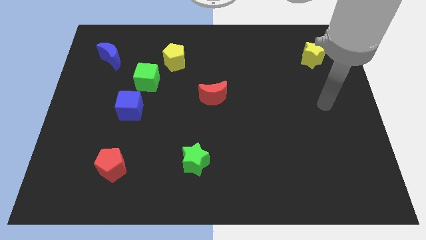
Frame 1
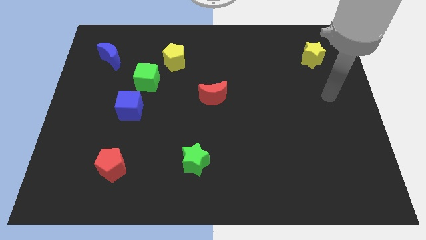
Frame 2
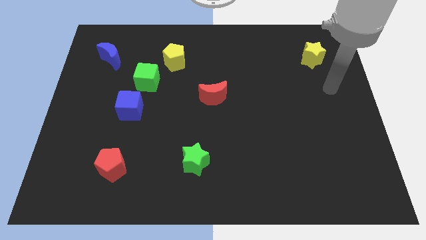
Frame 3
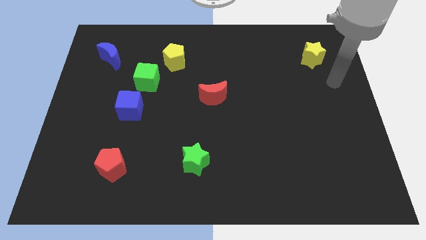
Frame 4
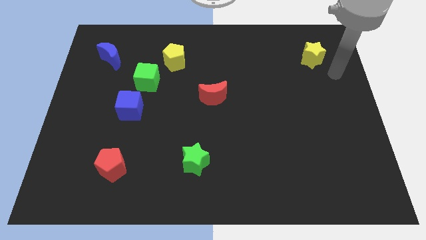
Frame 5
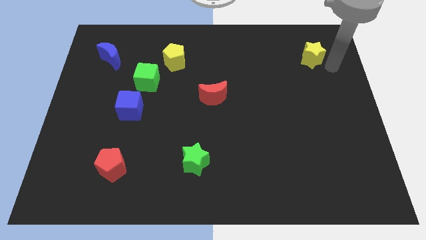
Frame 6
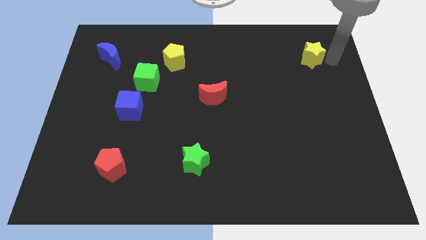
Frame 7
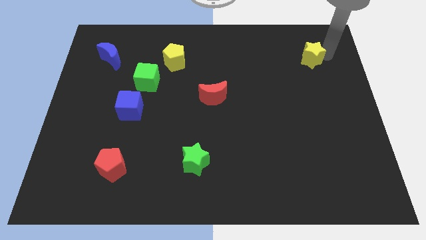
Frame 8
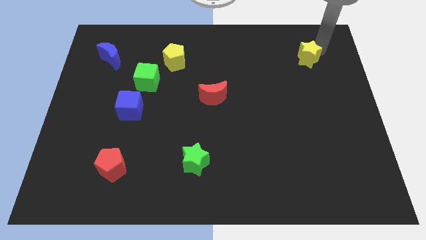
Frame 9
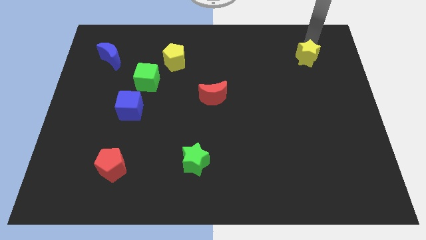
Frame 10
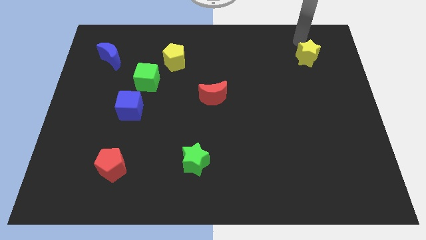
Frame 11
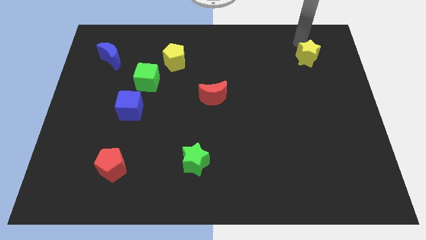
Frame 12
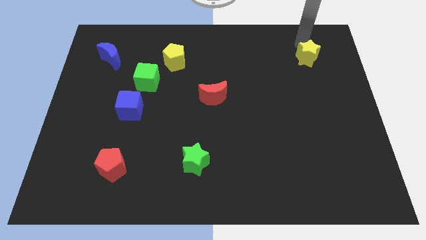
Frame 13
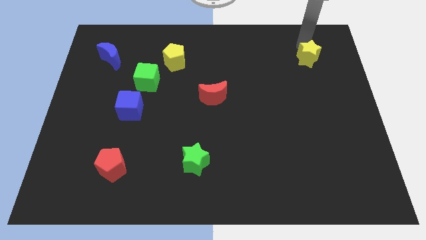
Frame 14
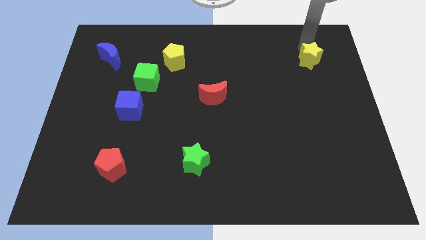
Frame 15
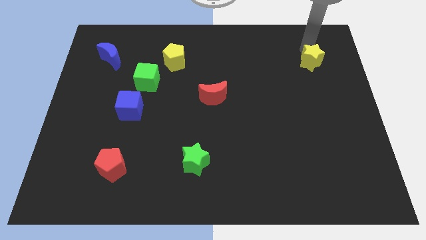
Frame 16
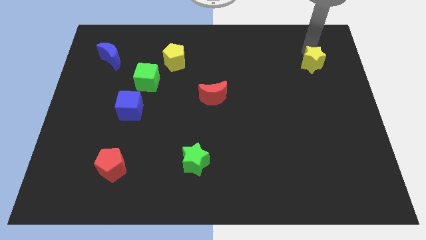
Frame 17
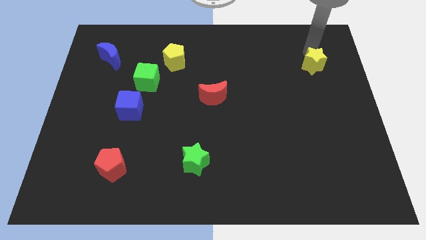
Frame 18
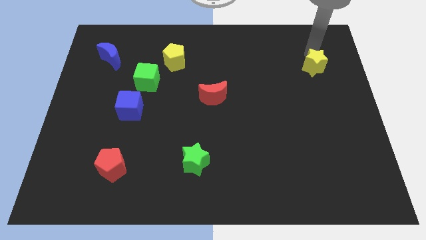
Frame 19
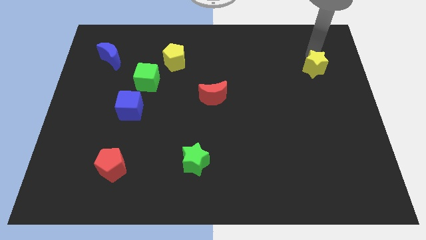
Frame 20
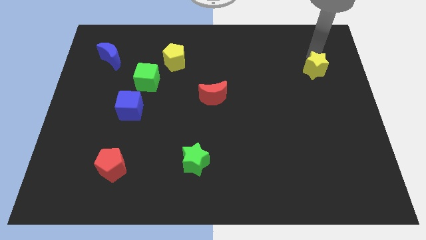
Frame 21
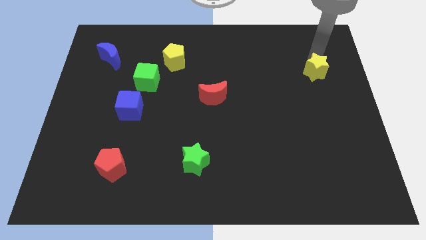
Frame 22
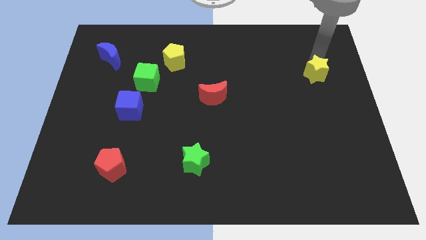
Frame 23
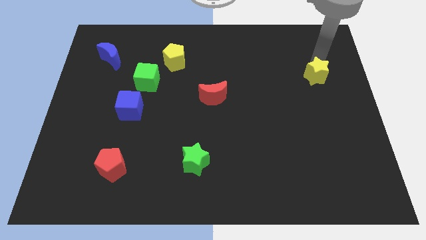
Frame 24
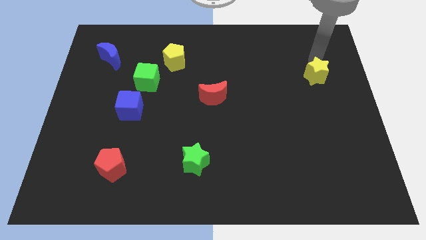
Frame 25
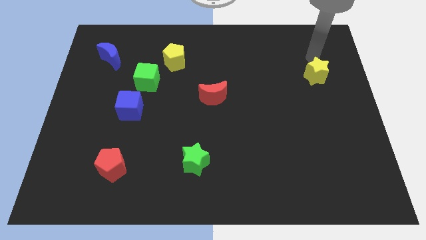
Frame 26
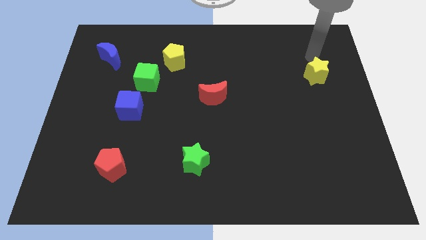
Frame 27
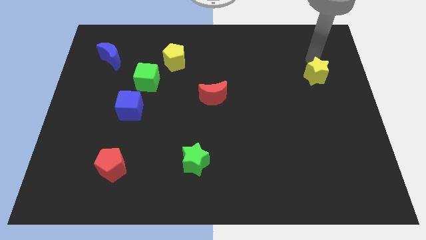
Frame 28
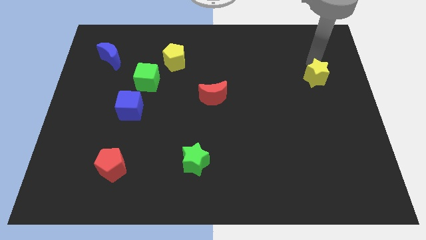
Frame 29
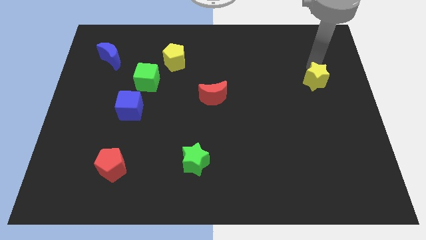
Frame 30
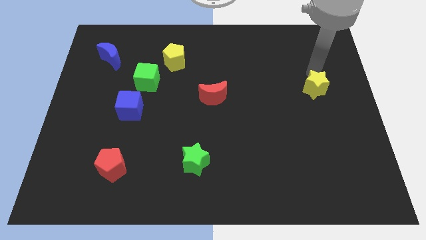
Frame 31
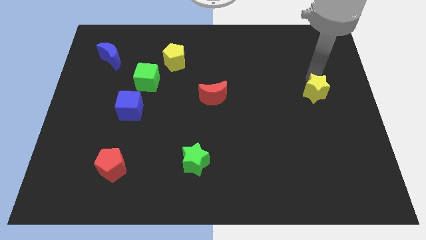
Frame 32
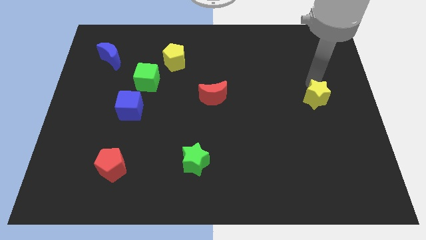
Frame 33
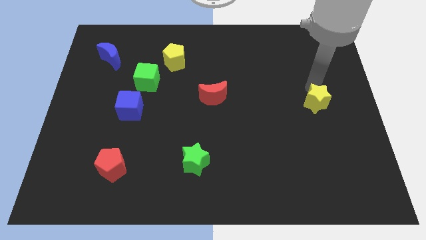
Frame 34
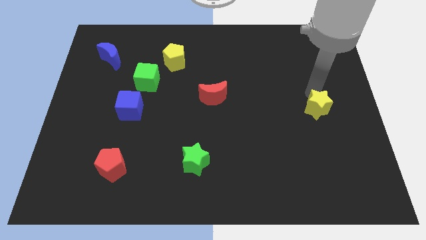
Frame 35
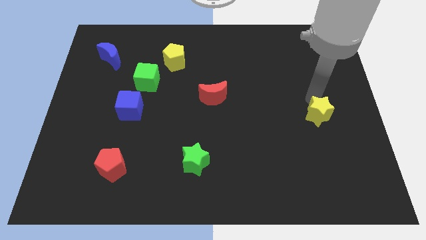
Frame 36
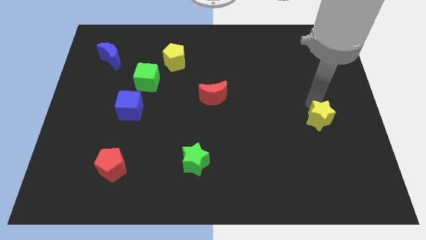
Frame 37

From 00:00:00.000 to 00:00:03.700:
push the yellow star downwards

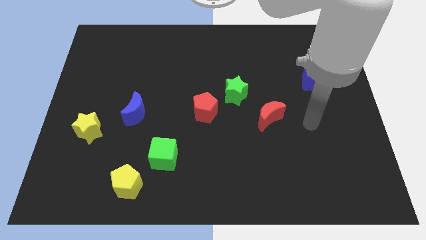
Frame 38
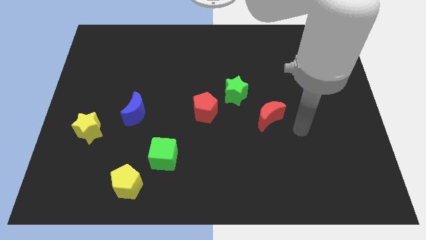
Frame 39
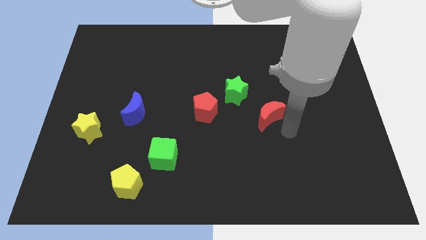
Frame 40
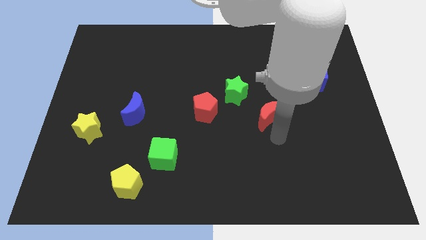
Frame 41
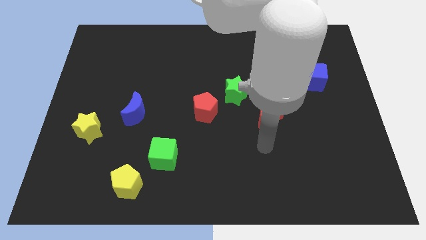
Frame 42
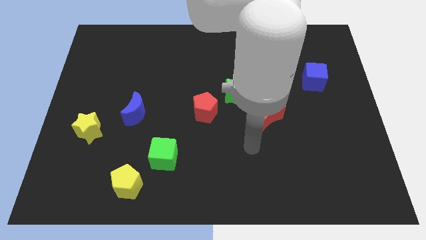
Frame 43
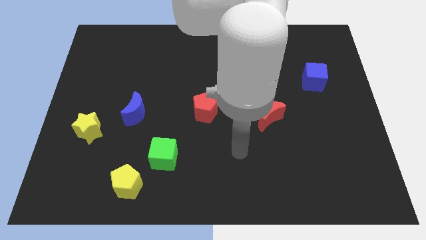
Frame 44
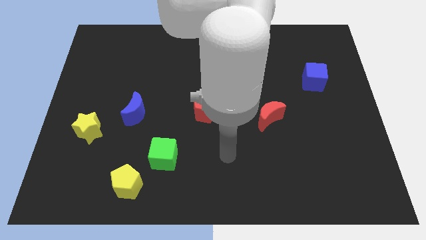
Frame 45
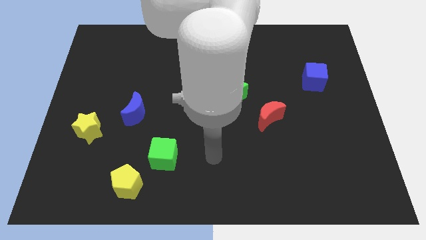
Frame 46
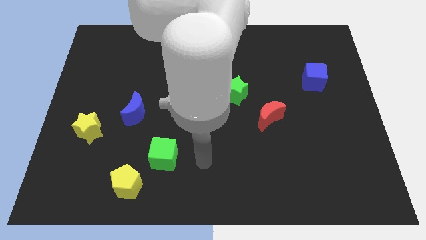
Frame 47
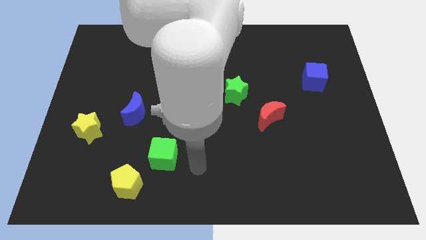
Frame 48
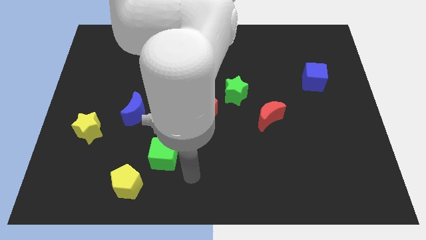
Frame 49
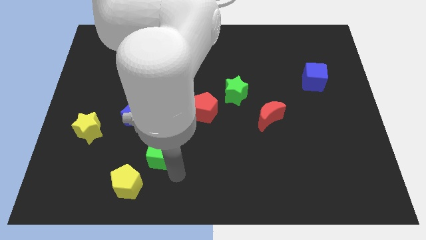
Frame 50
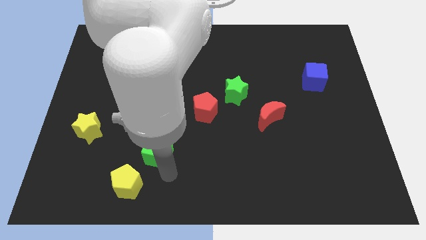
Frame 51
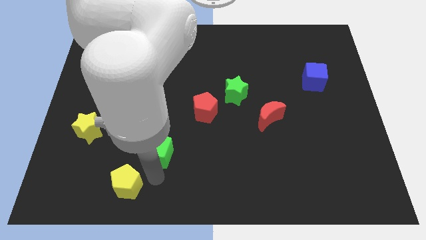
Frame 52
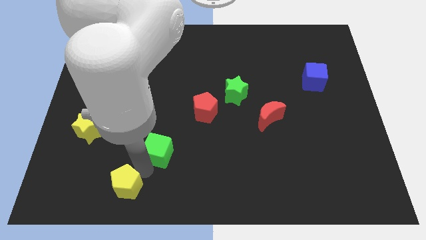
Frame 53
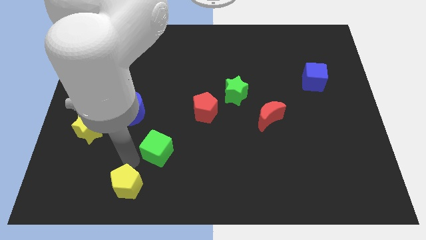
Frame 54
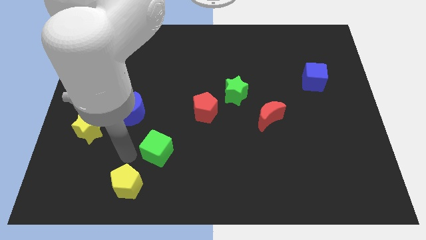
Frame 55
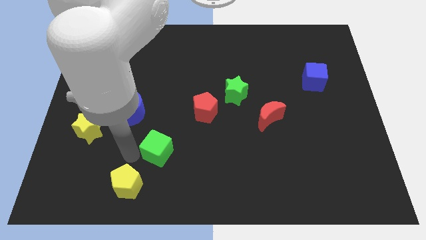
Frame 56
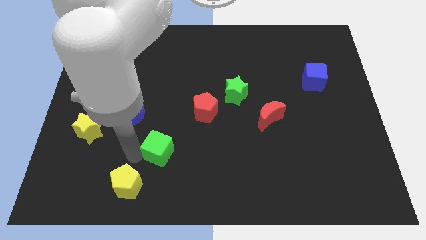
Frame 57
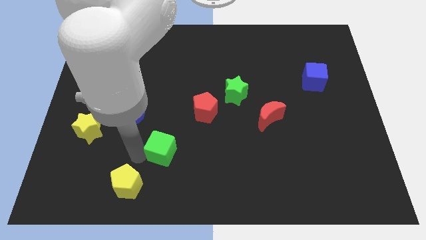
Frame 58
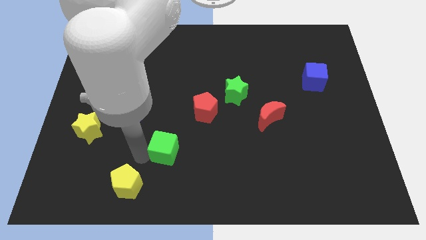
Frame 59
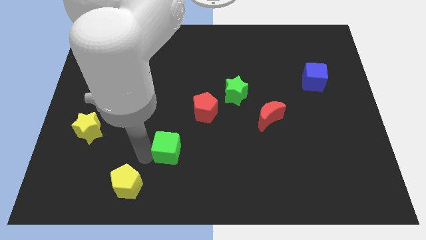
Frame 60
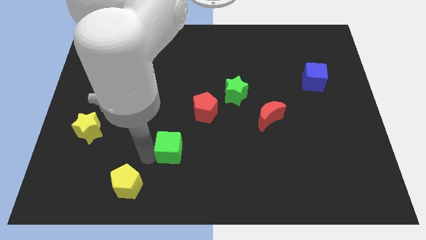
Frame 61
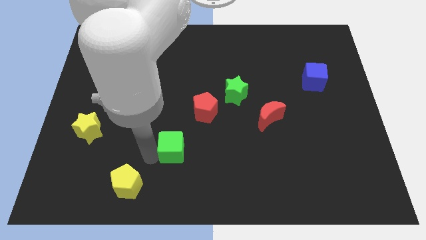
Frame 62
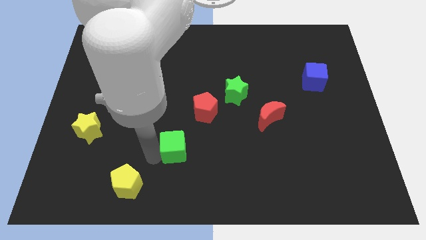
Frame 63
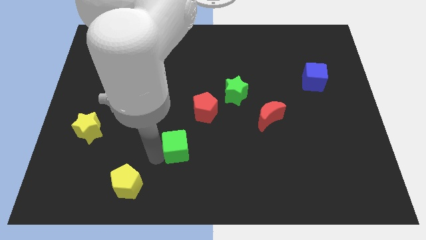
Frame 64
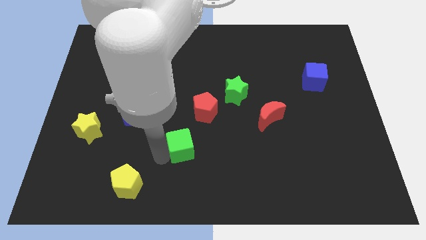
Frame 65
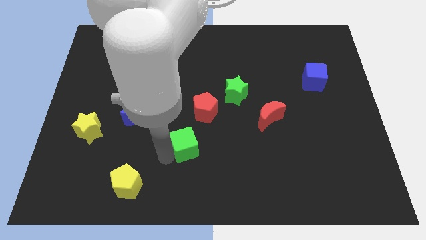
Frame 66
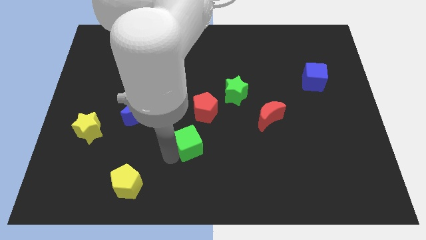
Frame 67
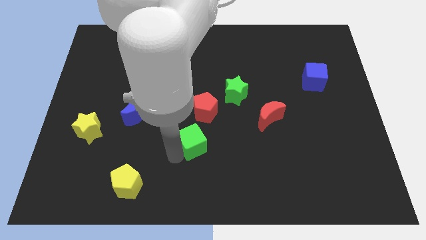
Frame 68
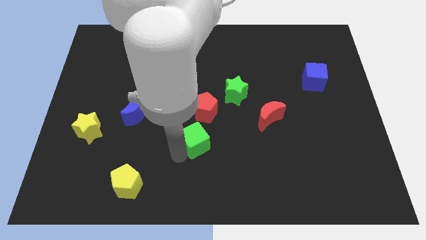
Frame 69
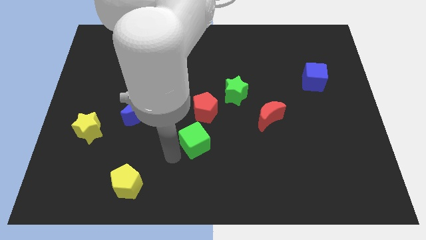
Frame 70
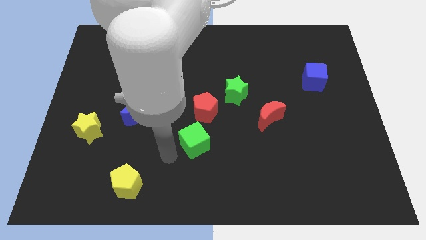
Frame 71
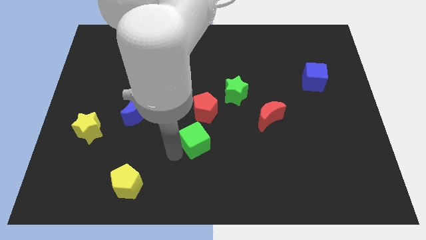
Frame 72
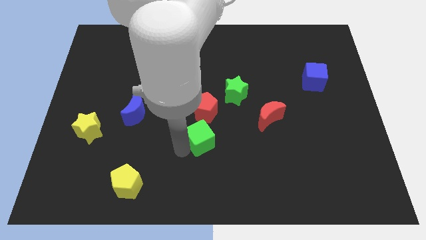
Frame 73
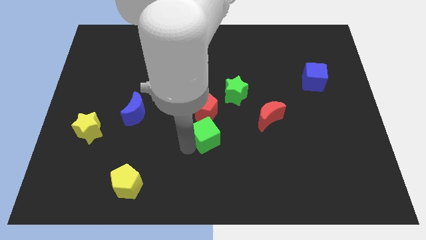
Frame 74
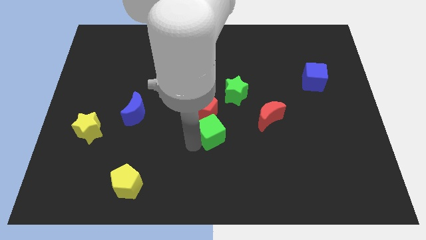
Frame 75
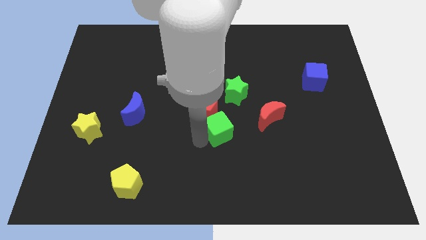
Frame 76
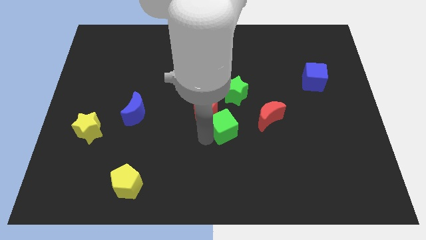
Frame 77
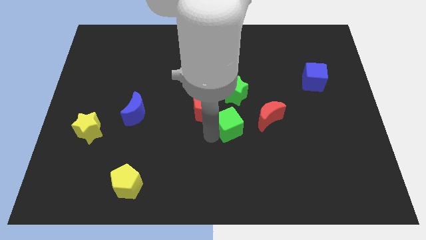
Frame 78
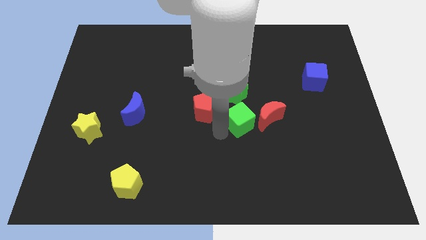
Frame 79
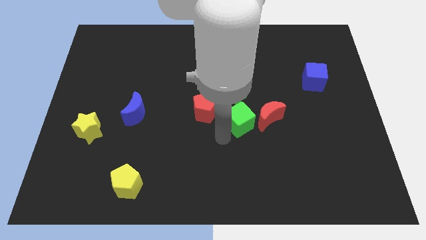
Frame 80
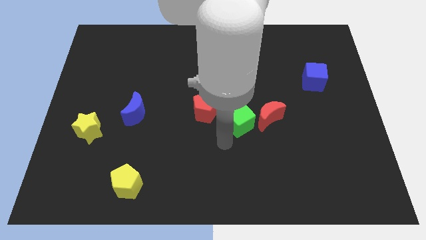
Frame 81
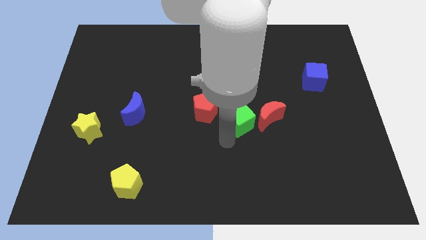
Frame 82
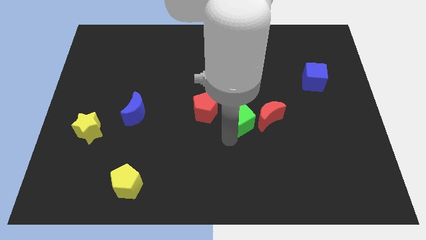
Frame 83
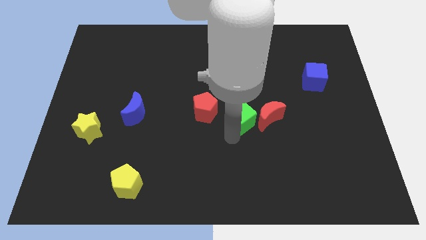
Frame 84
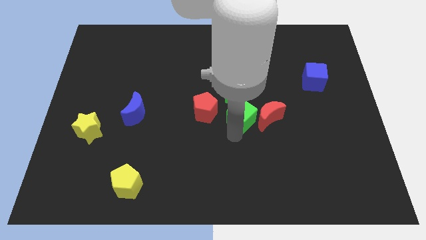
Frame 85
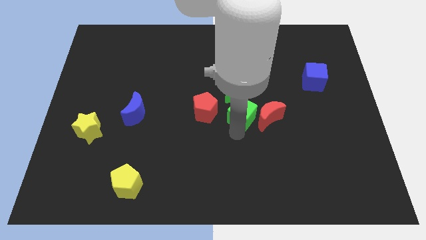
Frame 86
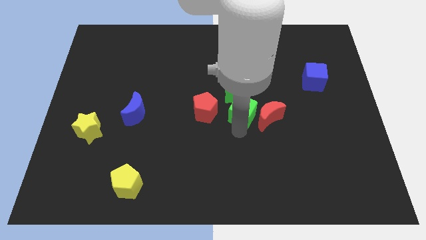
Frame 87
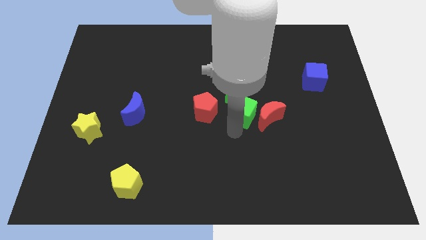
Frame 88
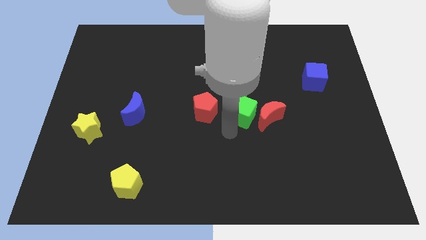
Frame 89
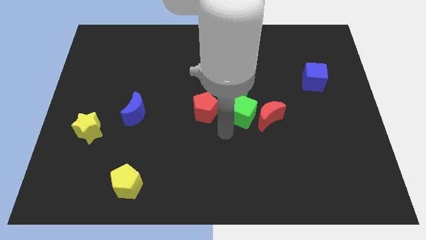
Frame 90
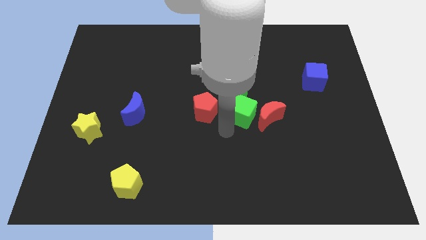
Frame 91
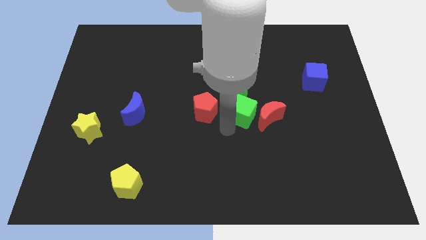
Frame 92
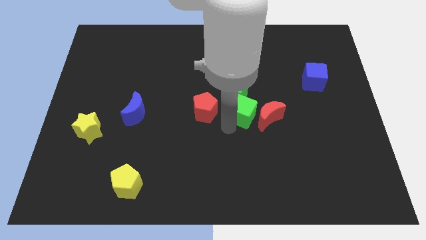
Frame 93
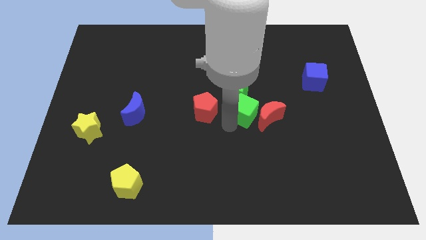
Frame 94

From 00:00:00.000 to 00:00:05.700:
slide the green cube up and to the right diagonally
